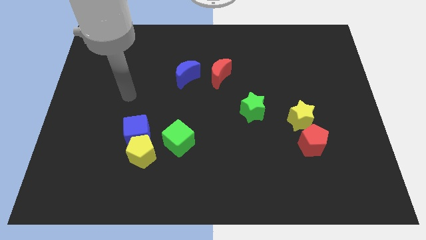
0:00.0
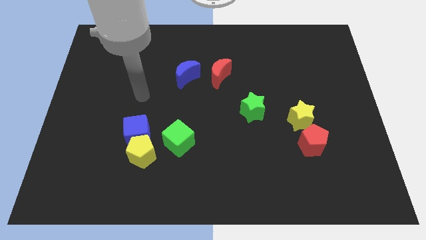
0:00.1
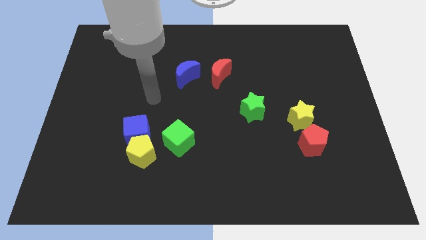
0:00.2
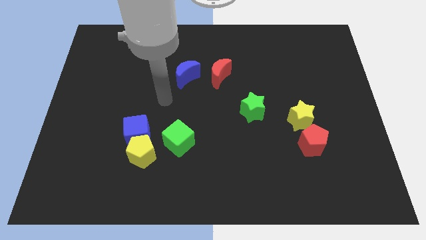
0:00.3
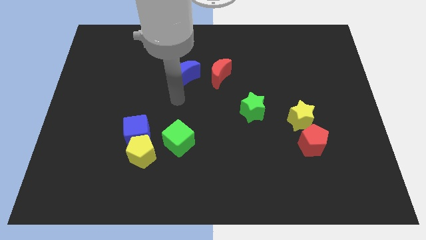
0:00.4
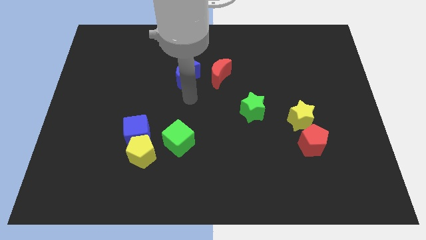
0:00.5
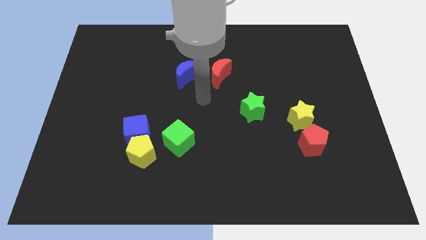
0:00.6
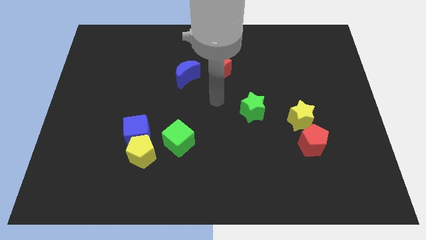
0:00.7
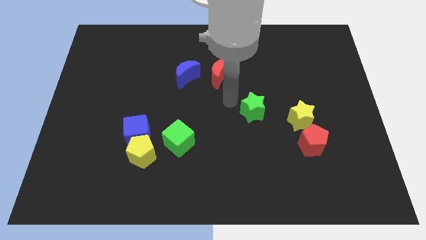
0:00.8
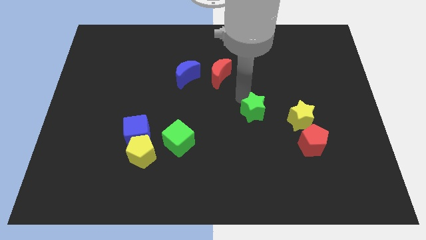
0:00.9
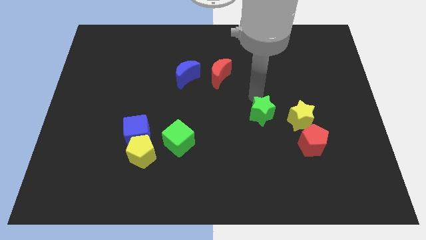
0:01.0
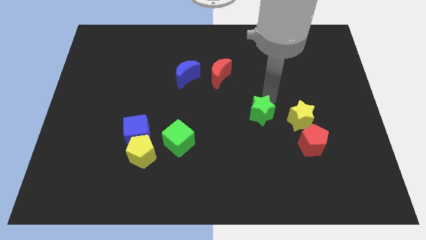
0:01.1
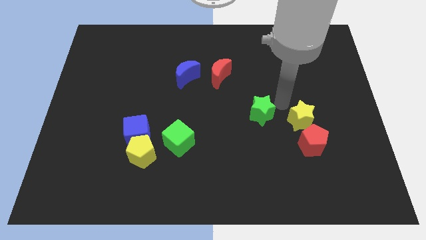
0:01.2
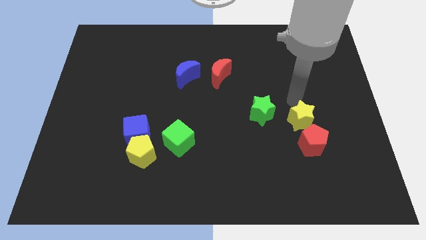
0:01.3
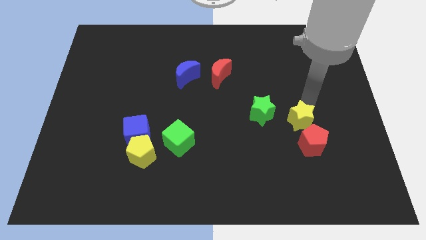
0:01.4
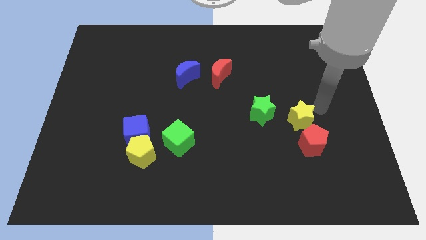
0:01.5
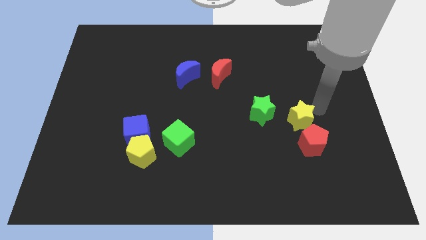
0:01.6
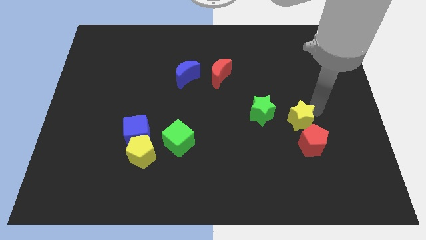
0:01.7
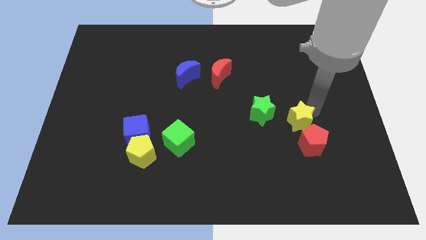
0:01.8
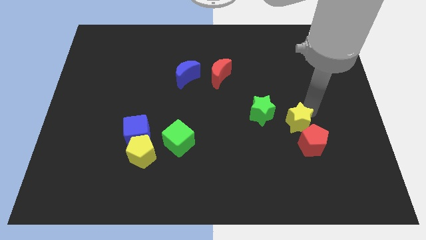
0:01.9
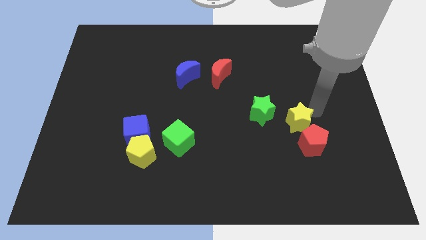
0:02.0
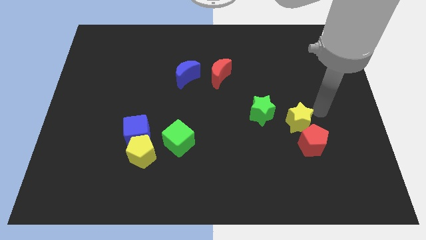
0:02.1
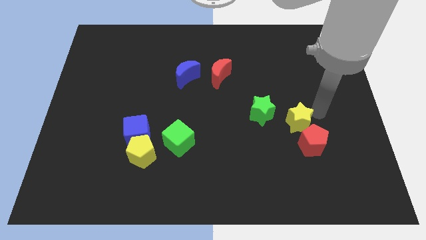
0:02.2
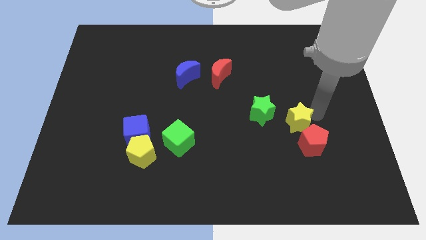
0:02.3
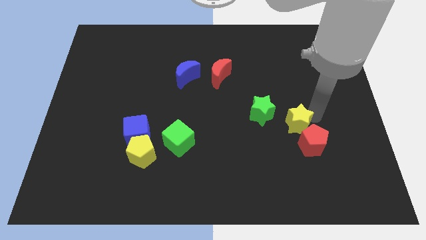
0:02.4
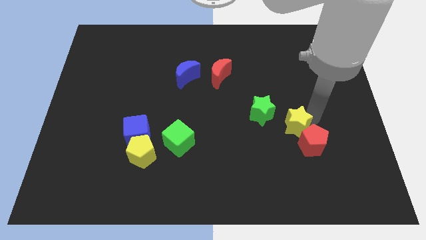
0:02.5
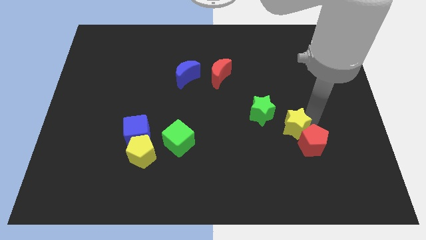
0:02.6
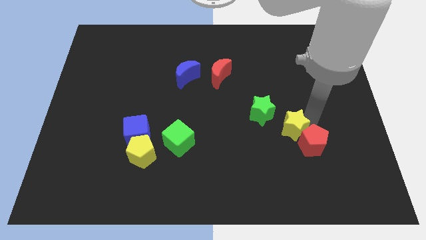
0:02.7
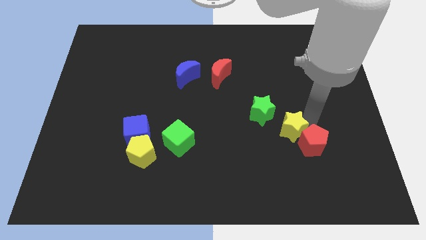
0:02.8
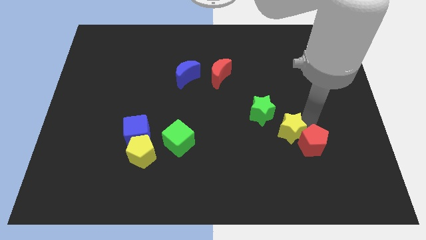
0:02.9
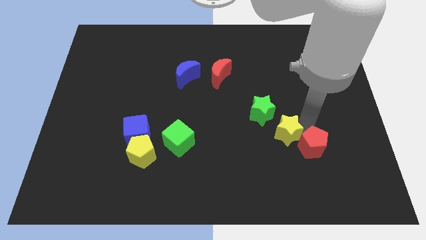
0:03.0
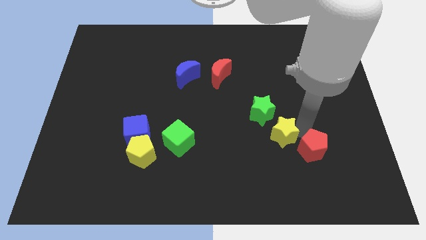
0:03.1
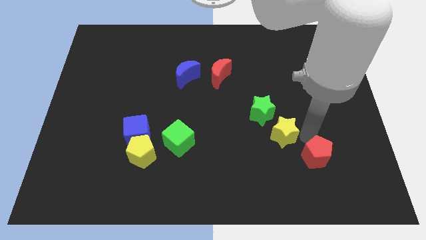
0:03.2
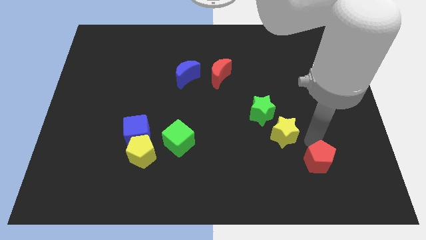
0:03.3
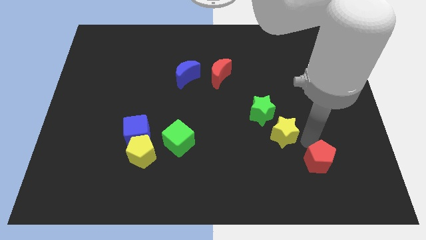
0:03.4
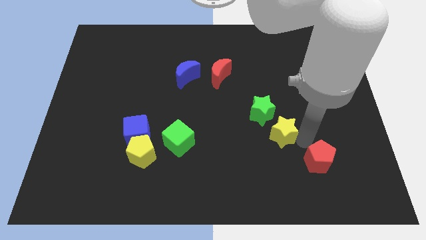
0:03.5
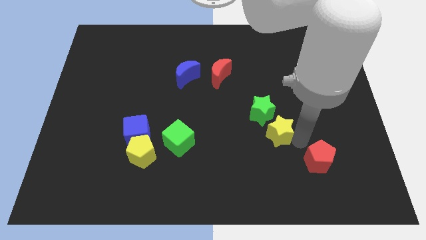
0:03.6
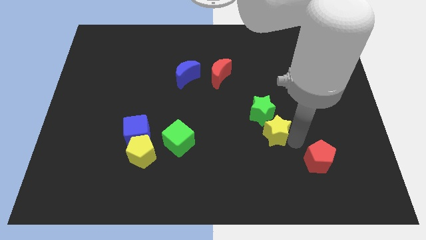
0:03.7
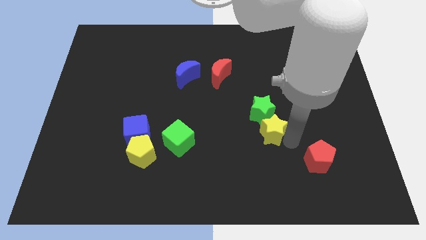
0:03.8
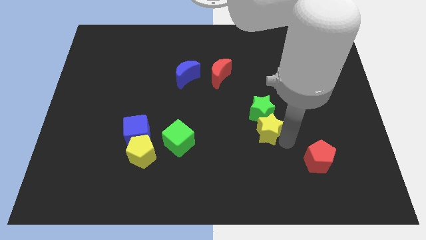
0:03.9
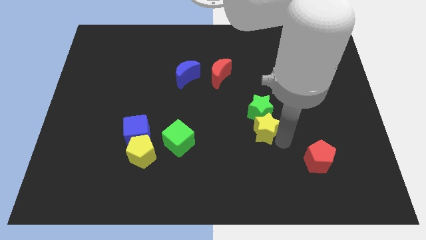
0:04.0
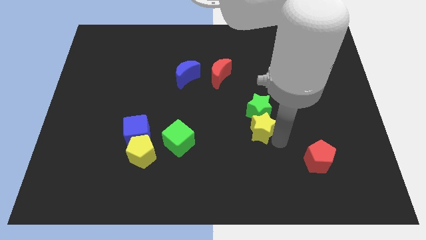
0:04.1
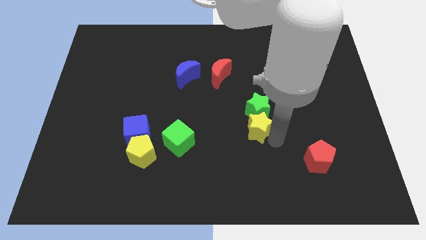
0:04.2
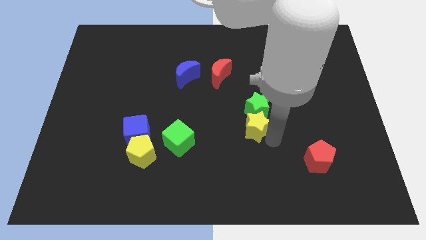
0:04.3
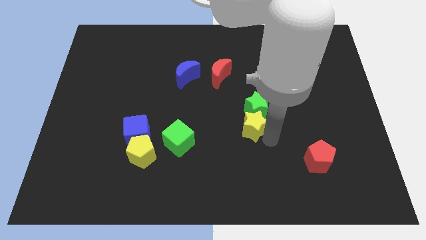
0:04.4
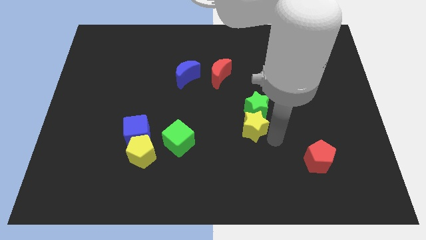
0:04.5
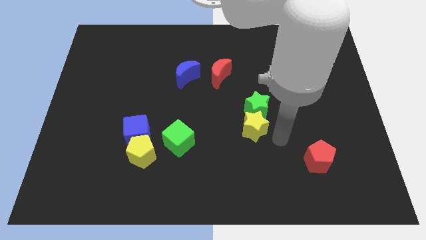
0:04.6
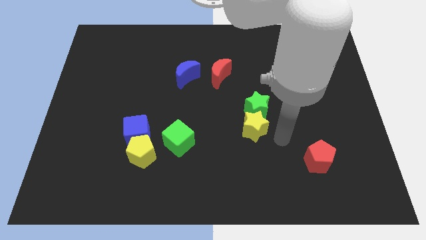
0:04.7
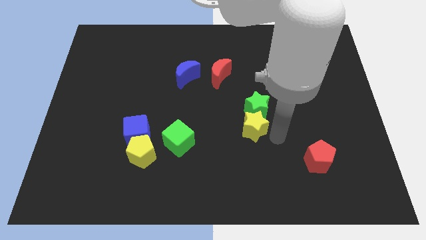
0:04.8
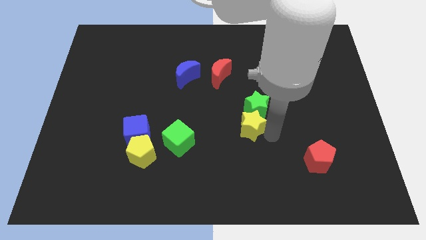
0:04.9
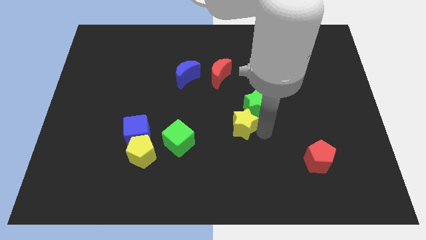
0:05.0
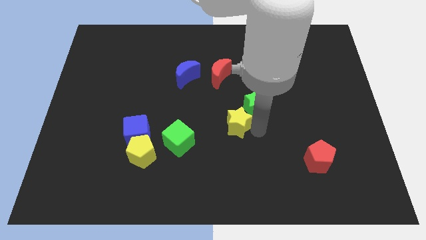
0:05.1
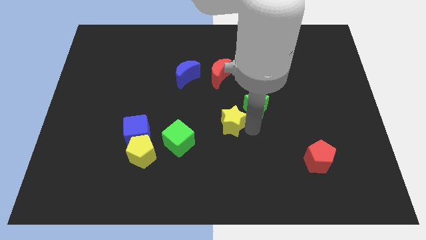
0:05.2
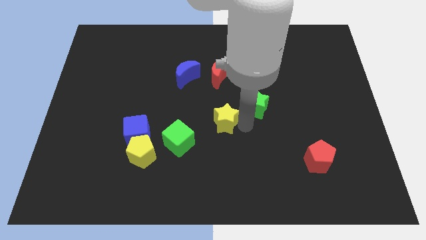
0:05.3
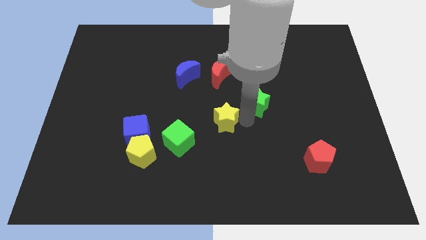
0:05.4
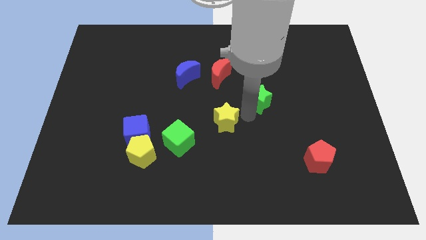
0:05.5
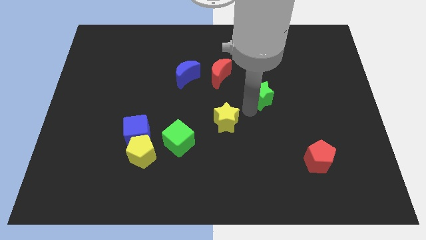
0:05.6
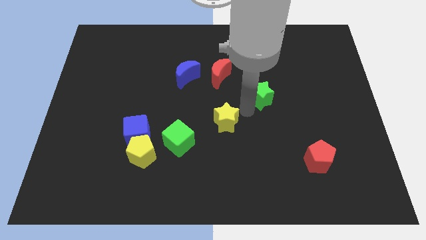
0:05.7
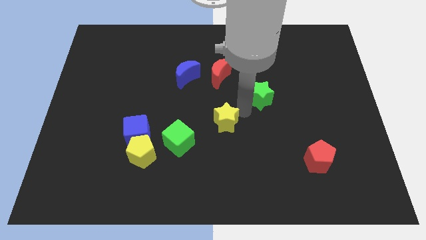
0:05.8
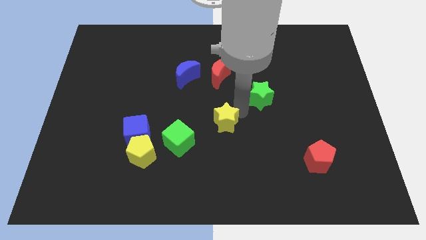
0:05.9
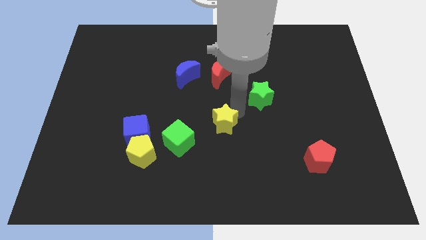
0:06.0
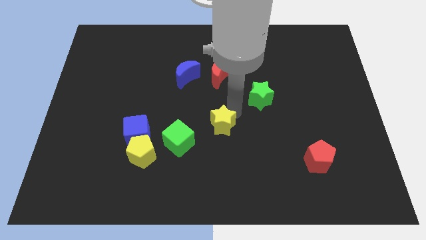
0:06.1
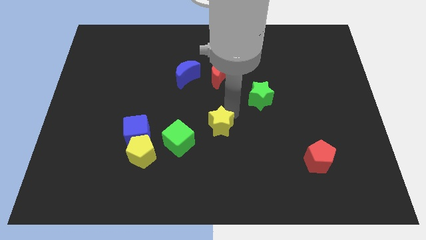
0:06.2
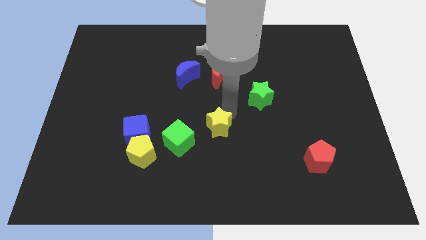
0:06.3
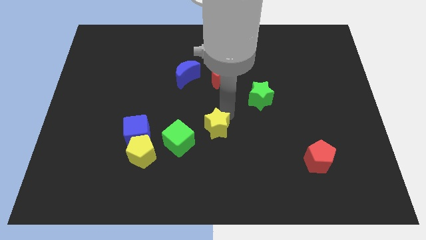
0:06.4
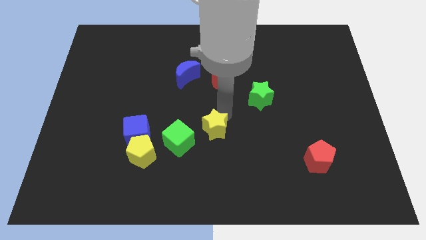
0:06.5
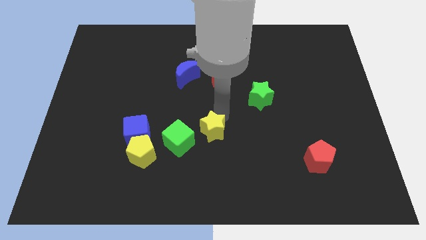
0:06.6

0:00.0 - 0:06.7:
push the yellow star to the left

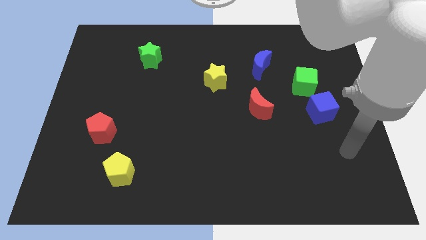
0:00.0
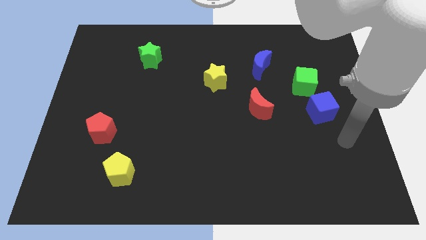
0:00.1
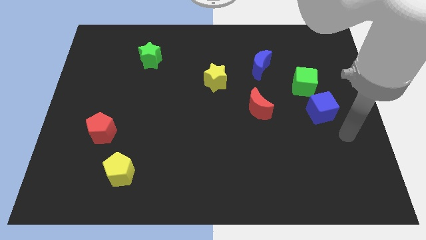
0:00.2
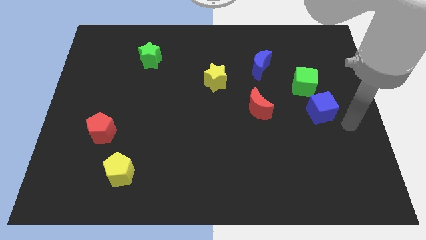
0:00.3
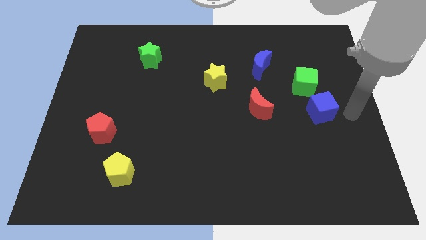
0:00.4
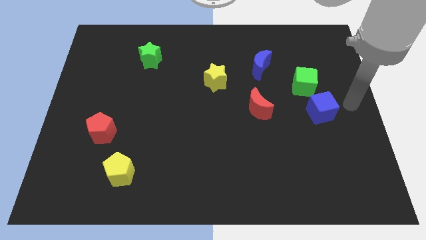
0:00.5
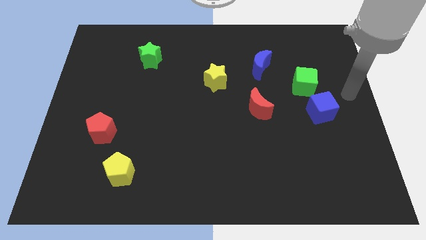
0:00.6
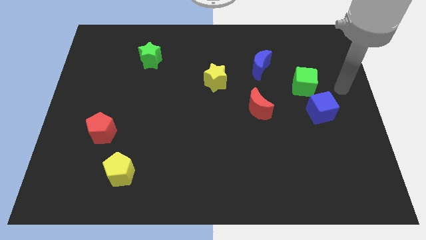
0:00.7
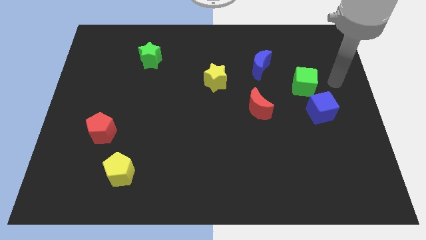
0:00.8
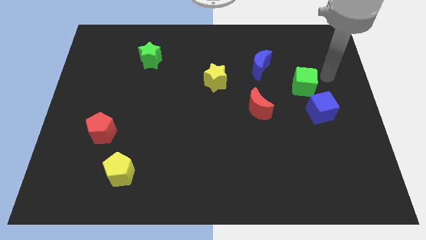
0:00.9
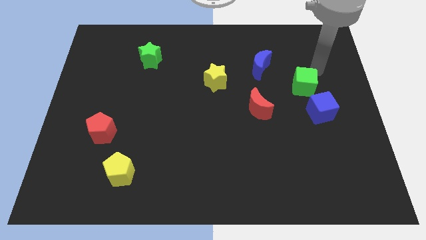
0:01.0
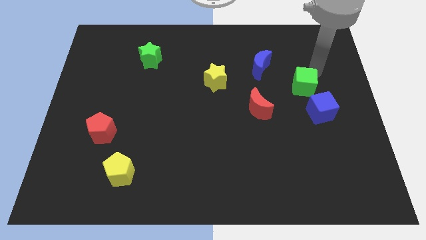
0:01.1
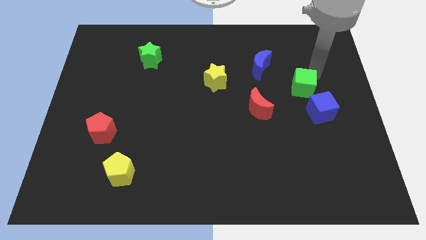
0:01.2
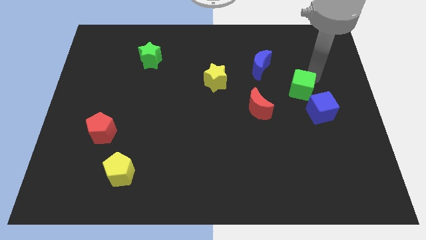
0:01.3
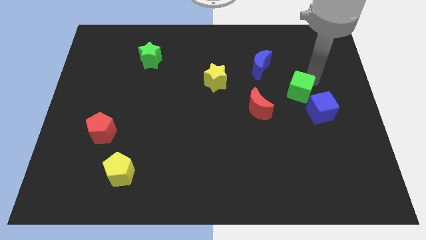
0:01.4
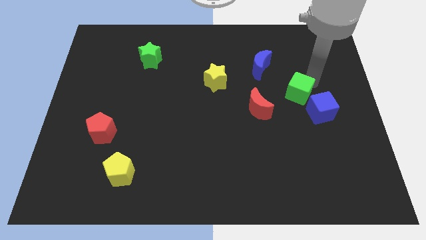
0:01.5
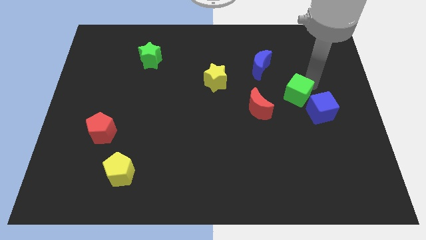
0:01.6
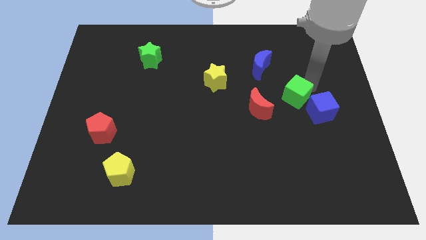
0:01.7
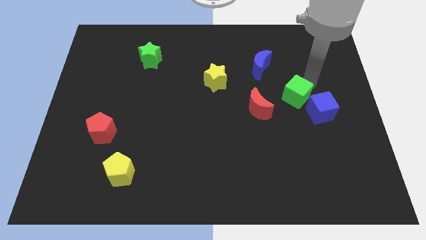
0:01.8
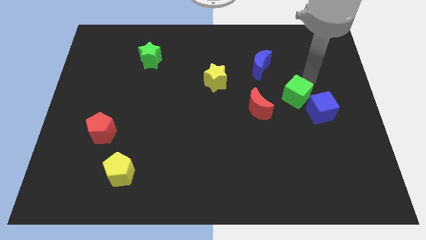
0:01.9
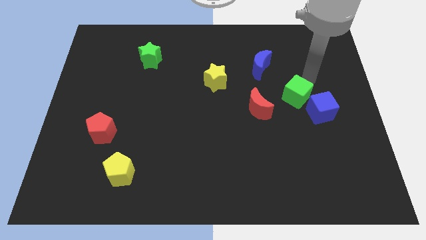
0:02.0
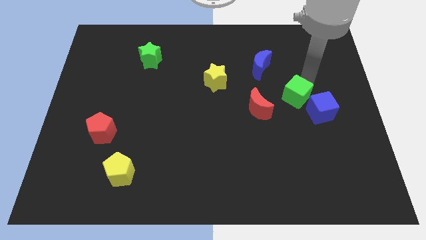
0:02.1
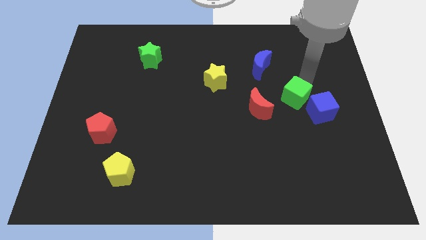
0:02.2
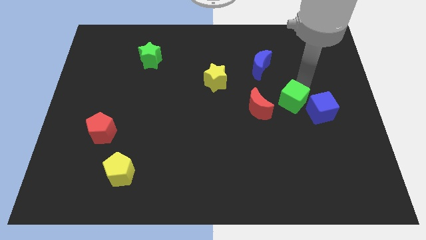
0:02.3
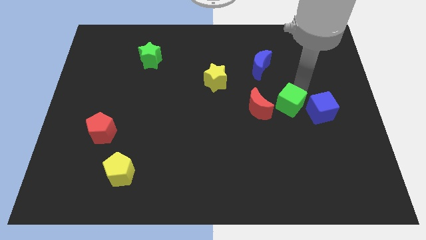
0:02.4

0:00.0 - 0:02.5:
push the green cube somewhat down and to the left diagonally
